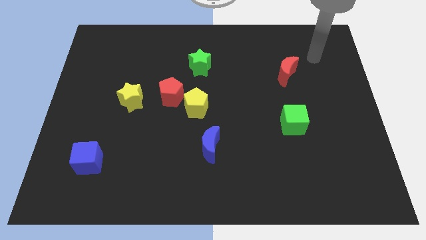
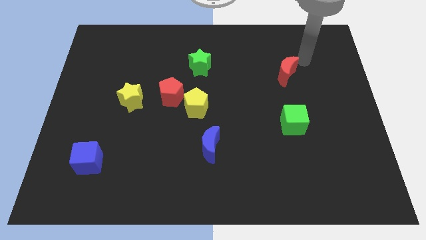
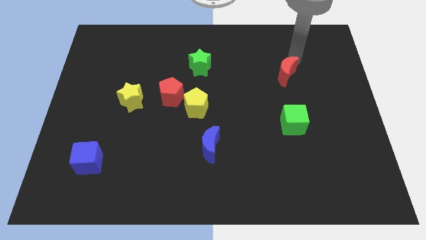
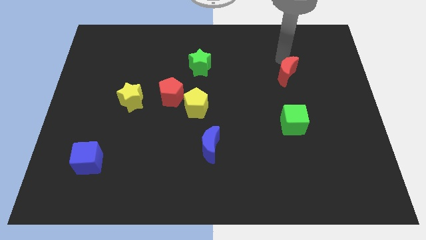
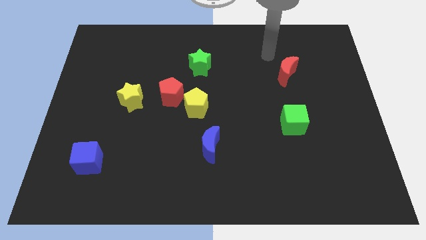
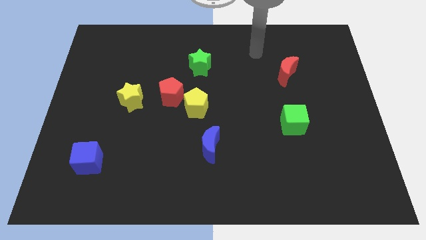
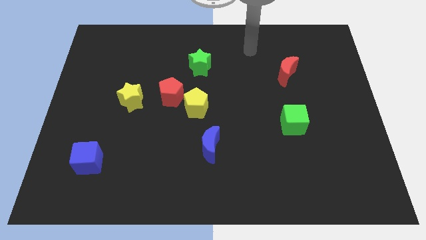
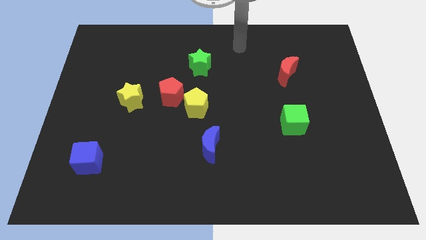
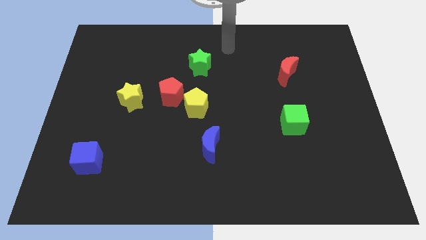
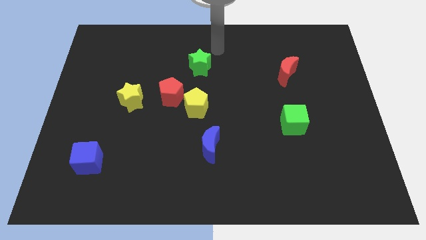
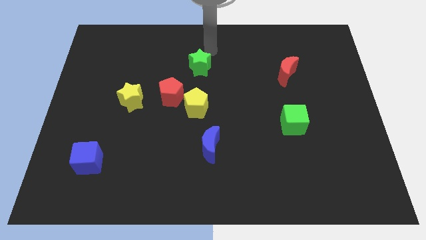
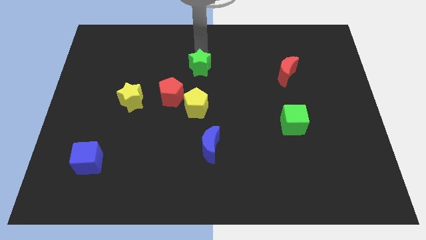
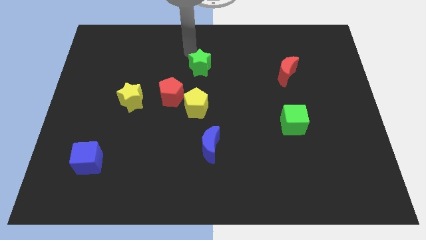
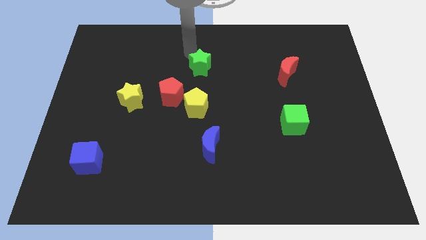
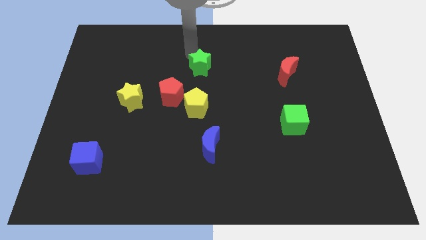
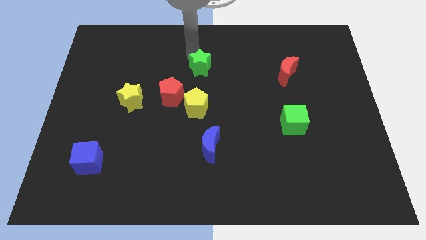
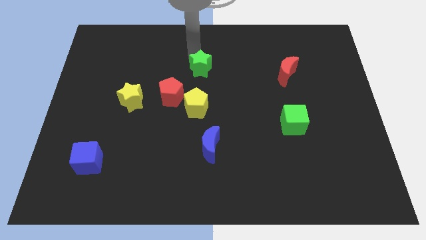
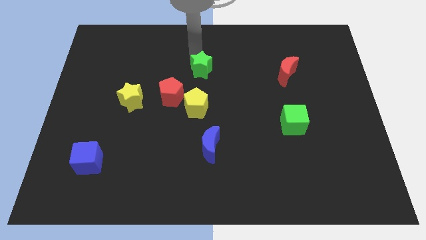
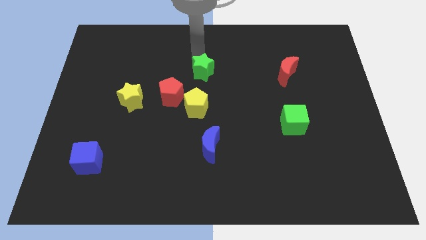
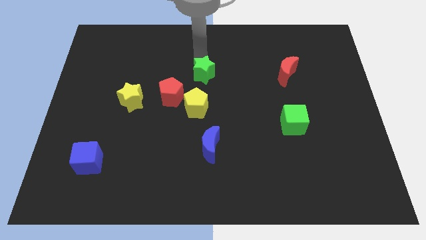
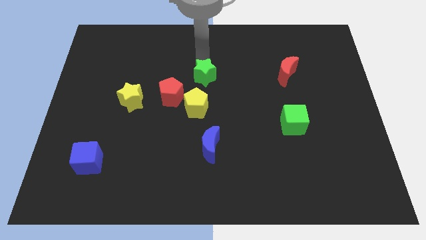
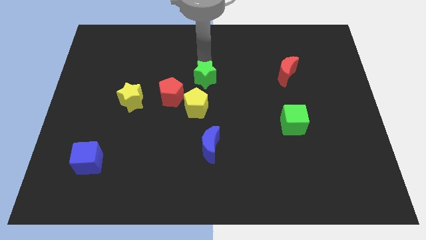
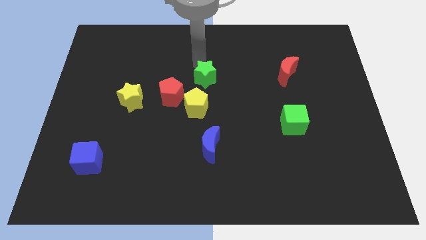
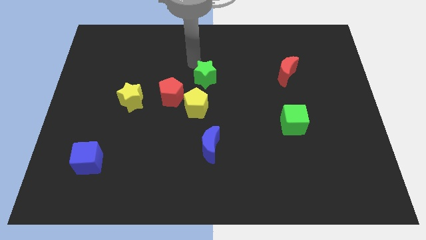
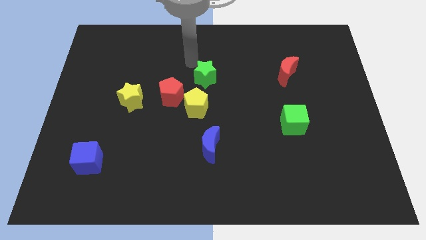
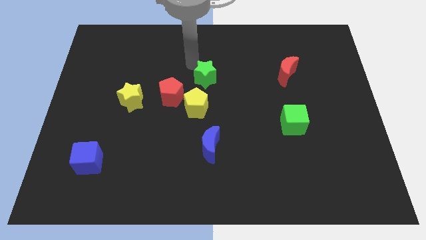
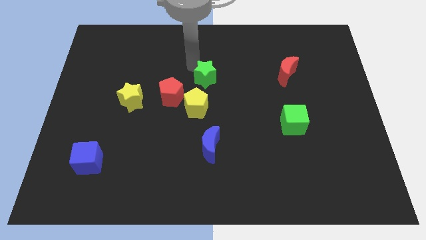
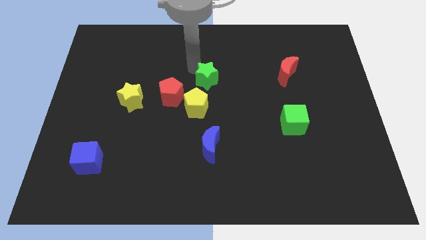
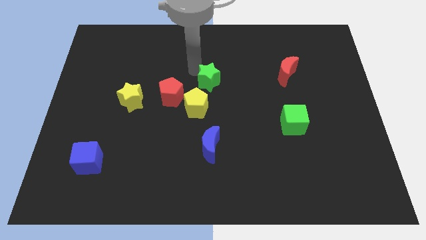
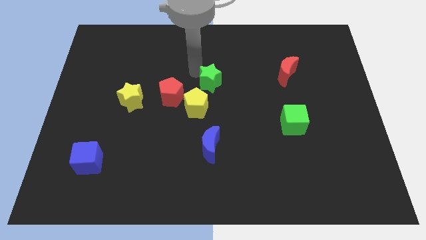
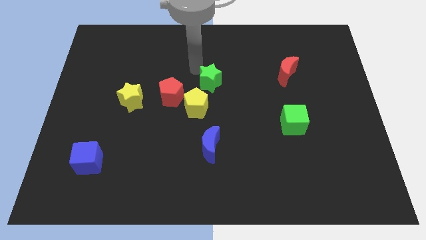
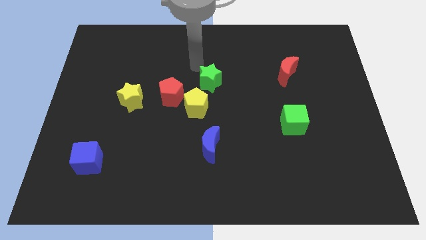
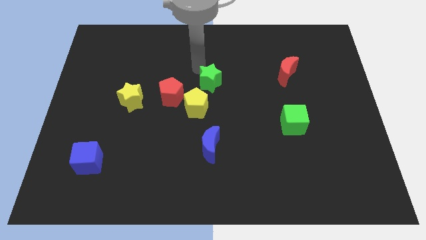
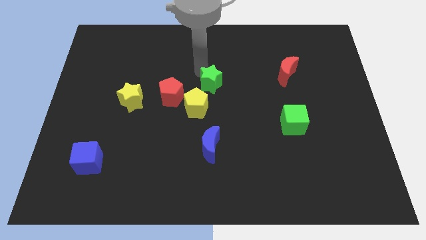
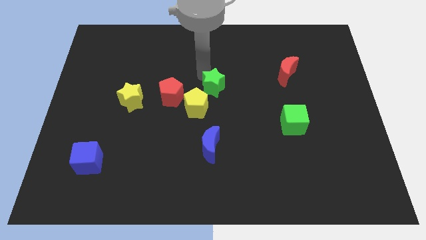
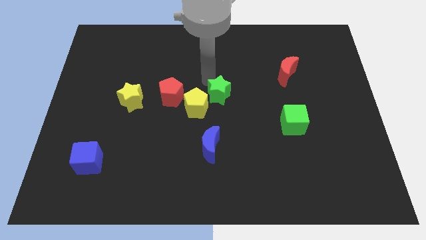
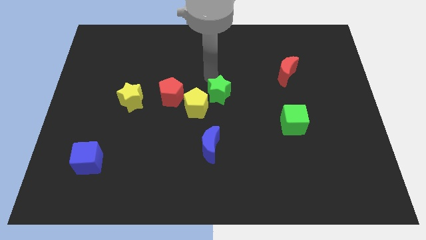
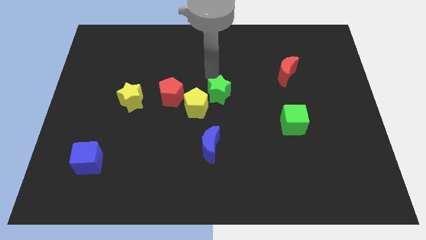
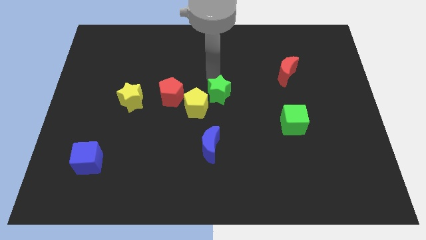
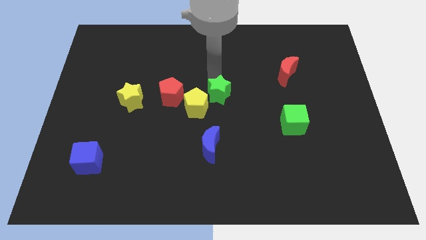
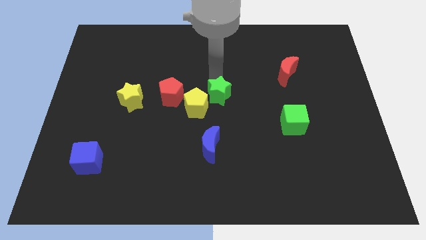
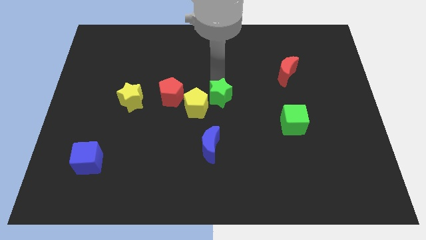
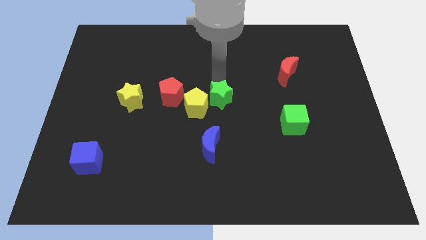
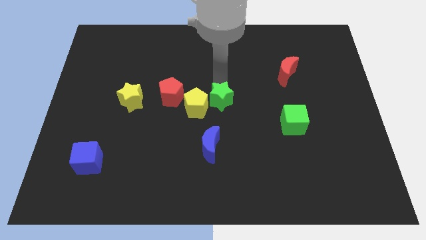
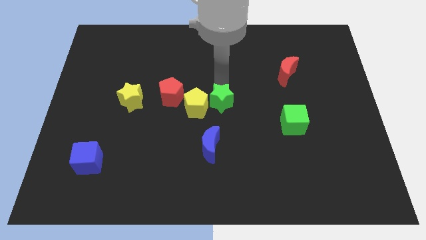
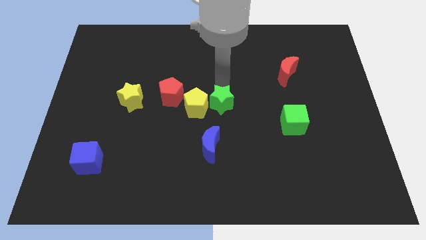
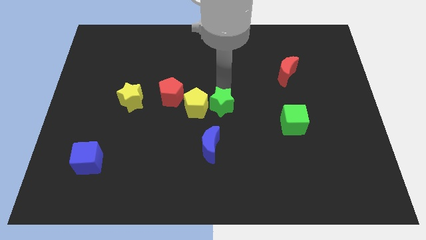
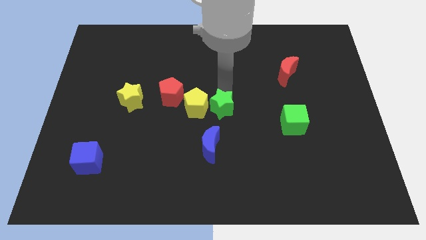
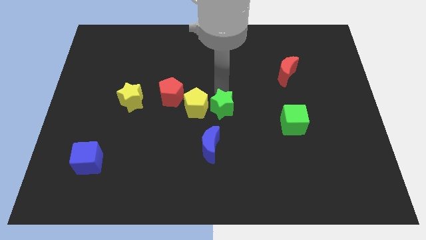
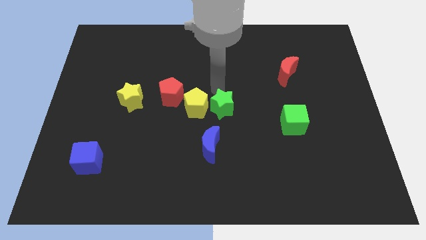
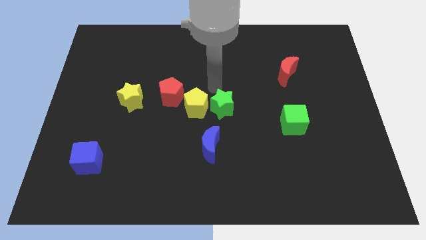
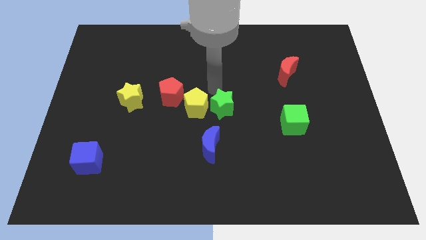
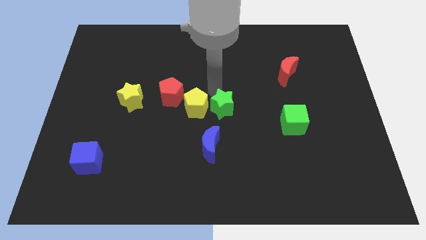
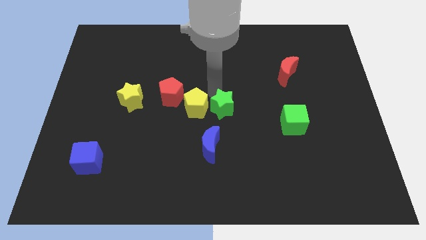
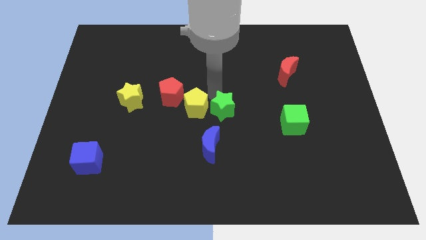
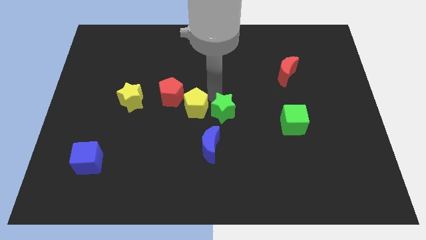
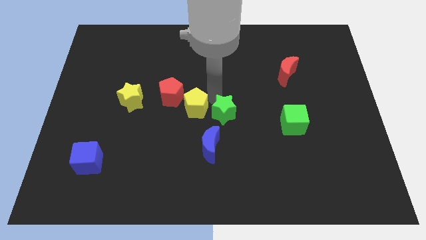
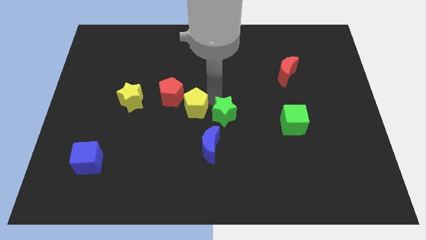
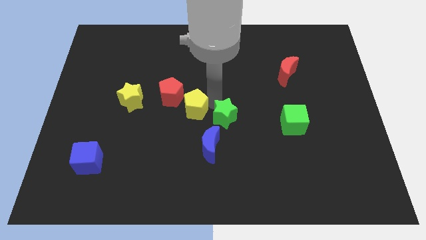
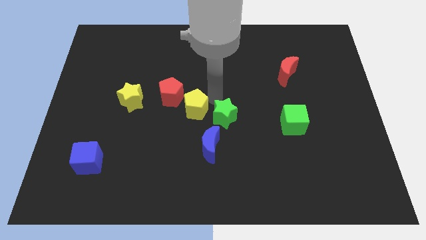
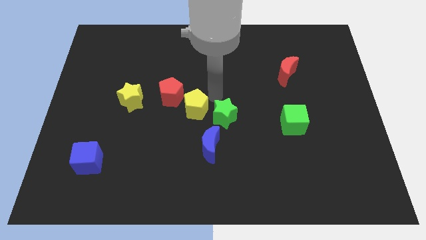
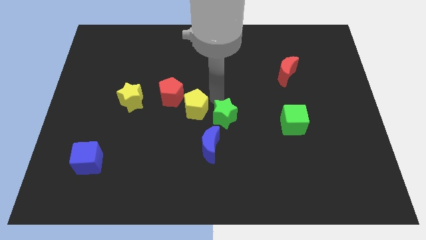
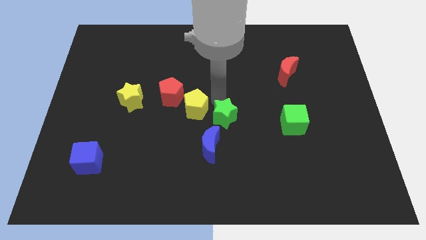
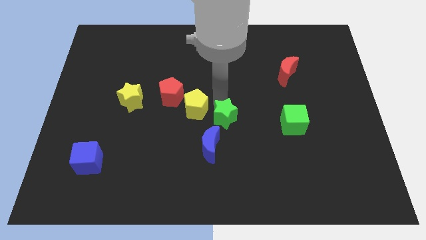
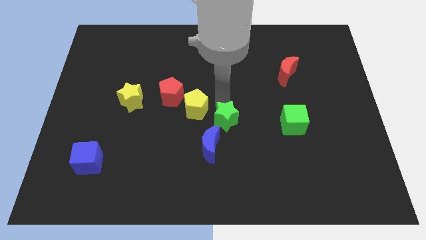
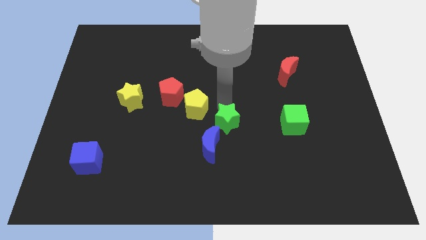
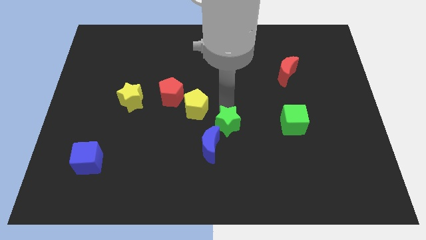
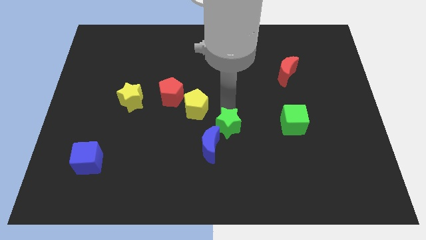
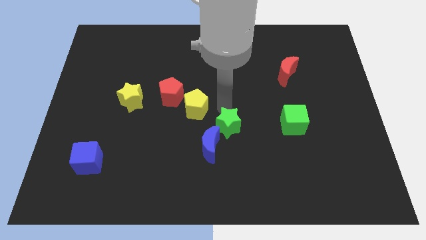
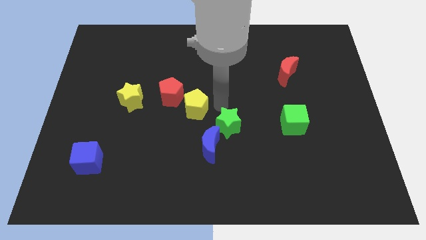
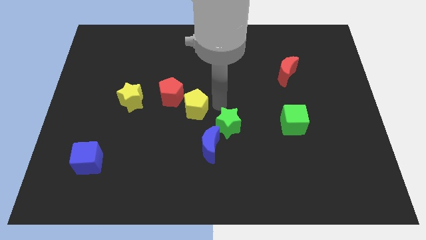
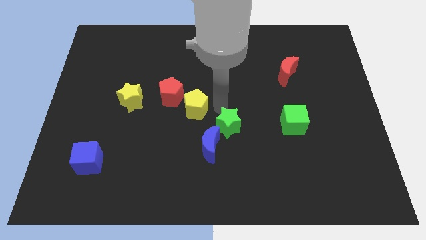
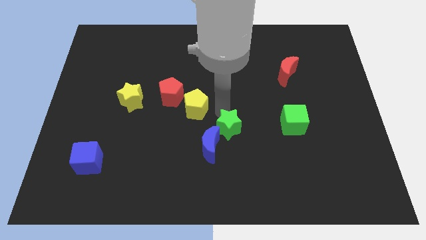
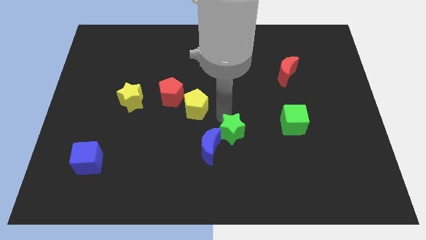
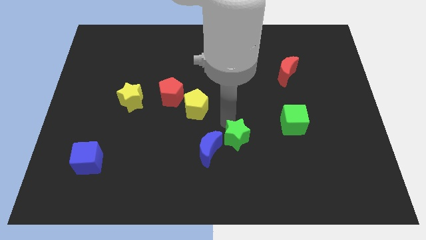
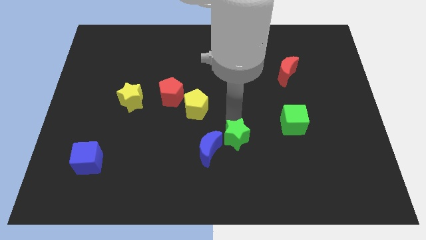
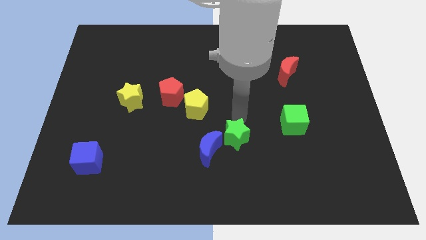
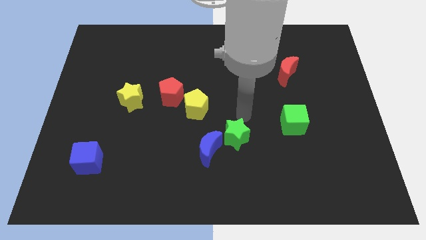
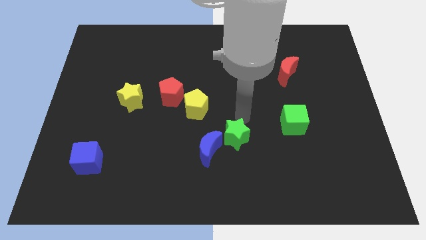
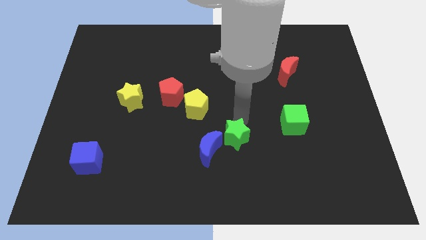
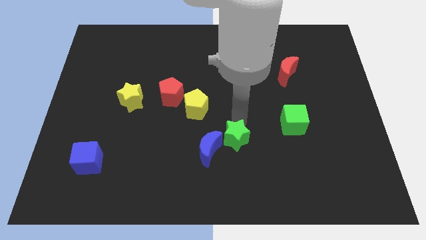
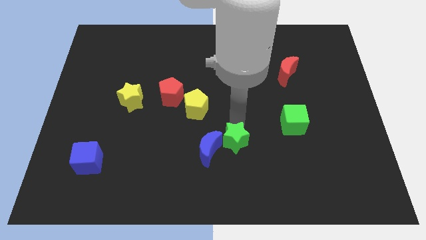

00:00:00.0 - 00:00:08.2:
move the green star down
